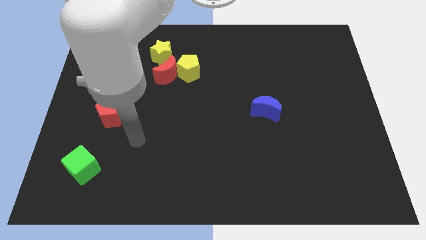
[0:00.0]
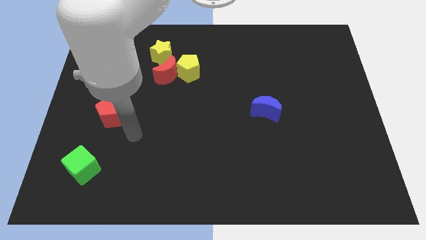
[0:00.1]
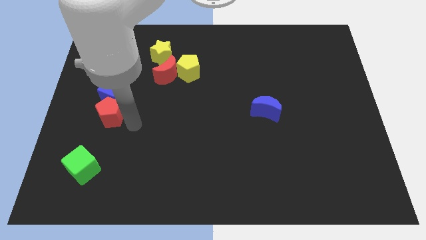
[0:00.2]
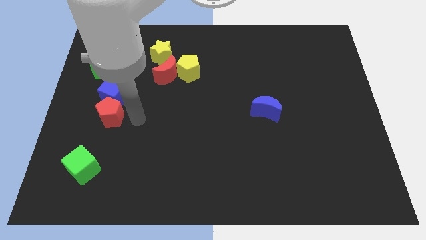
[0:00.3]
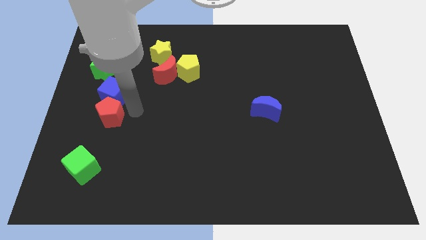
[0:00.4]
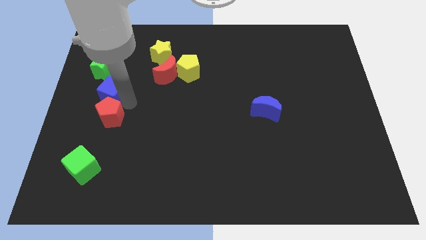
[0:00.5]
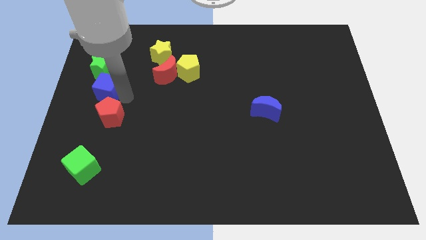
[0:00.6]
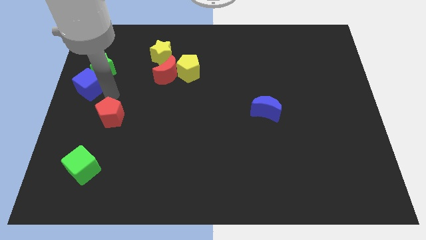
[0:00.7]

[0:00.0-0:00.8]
pull the red pentagon apart from the blue cube

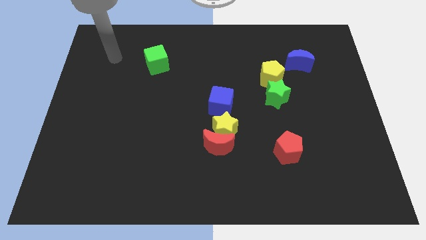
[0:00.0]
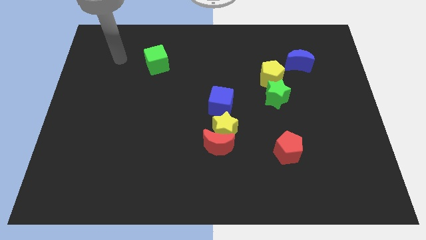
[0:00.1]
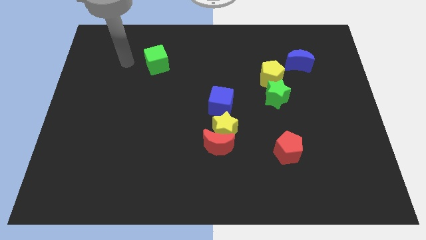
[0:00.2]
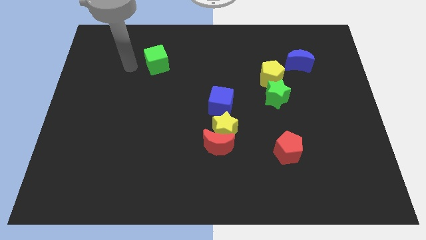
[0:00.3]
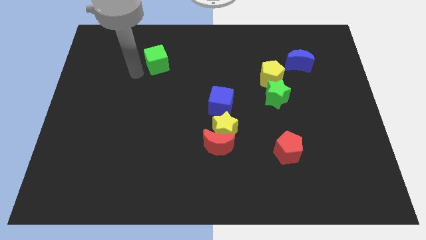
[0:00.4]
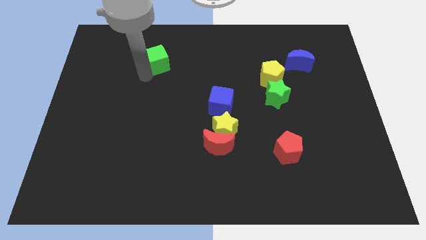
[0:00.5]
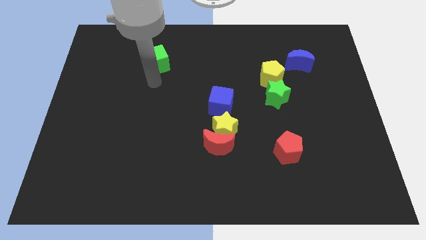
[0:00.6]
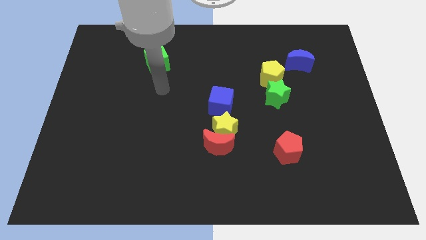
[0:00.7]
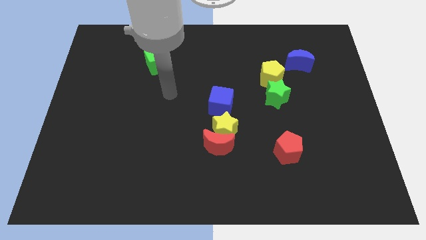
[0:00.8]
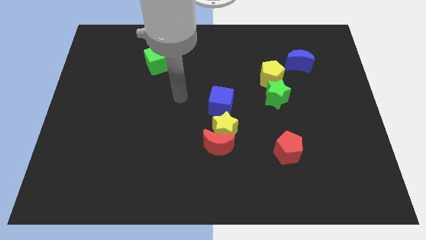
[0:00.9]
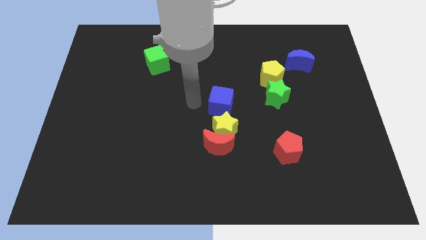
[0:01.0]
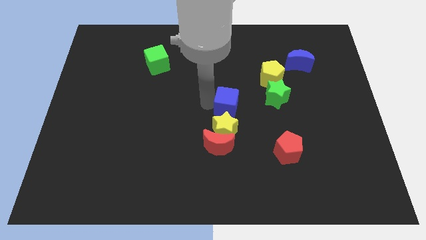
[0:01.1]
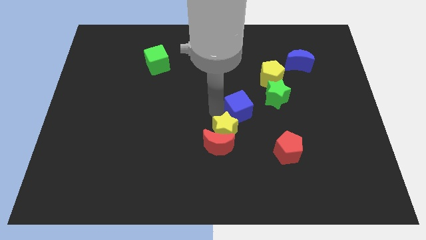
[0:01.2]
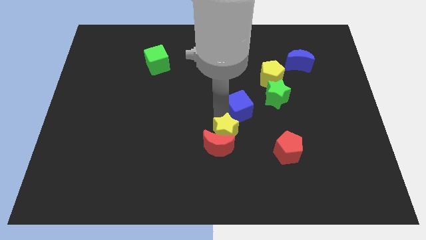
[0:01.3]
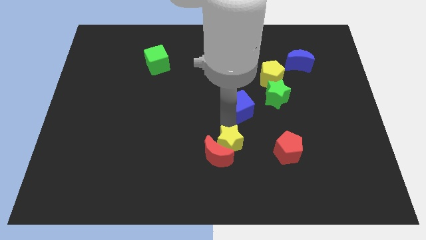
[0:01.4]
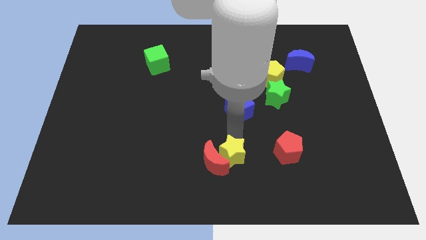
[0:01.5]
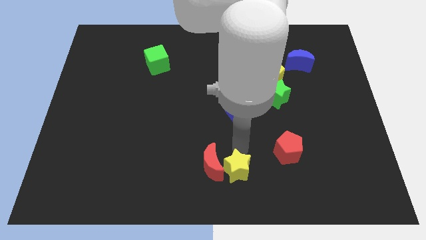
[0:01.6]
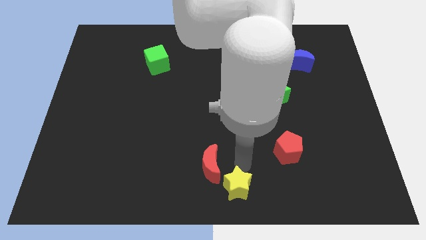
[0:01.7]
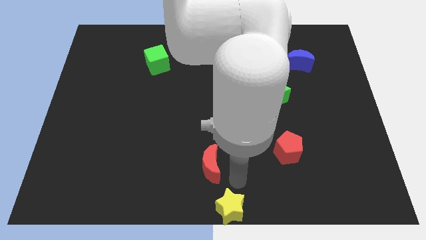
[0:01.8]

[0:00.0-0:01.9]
pull the red moon apart from the yellow star

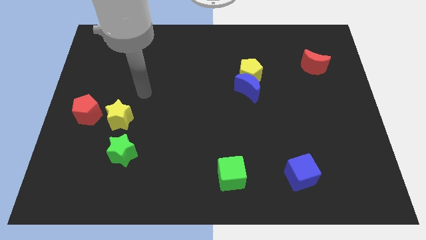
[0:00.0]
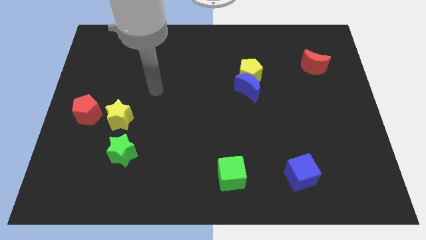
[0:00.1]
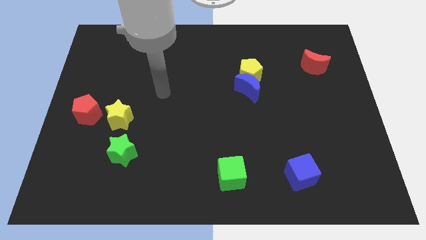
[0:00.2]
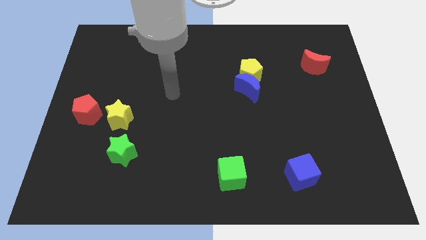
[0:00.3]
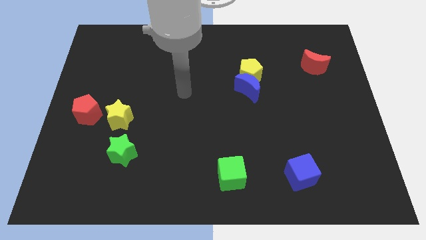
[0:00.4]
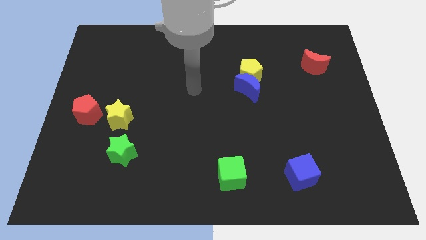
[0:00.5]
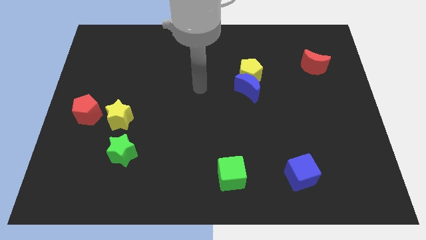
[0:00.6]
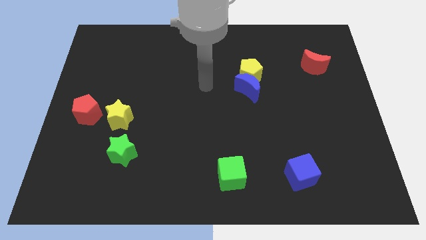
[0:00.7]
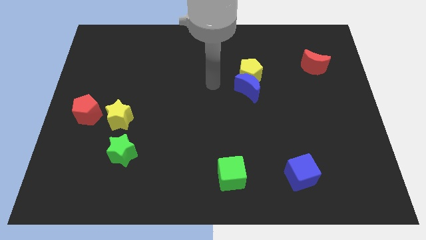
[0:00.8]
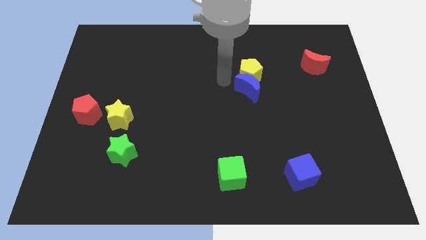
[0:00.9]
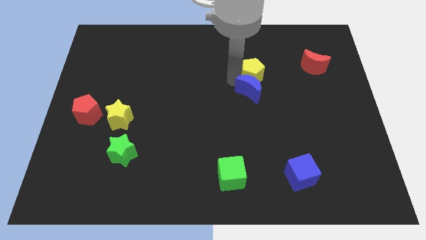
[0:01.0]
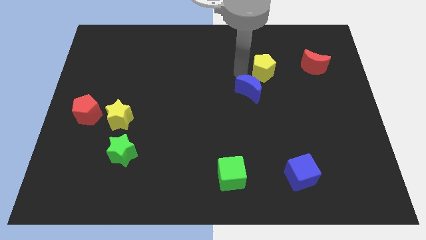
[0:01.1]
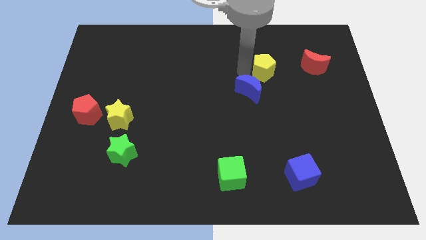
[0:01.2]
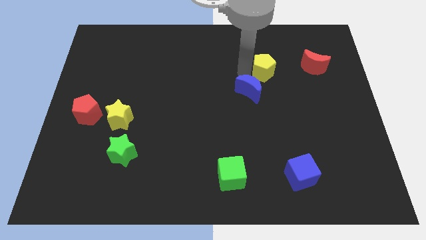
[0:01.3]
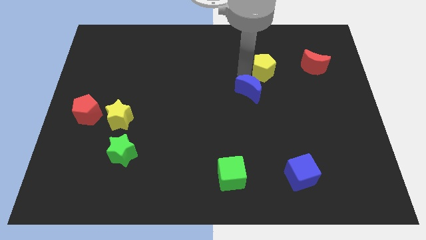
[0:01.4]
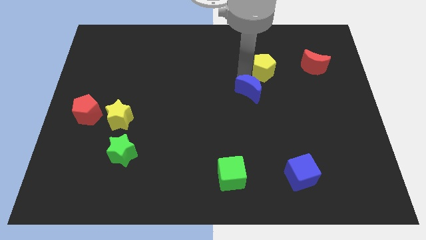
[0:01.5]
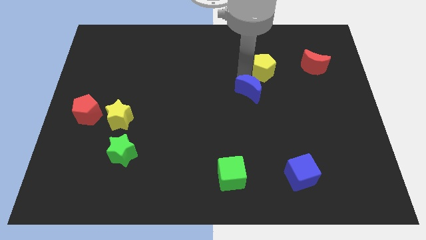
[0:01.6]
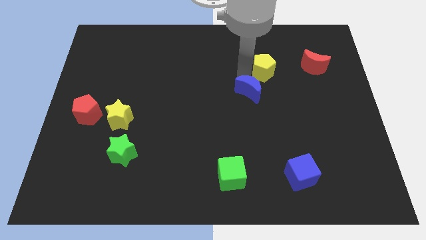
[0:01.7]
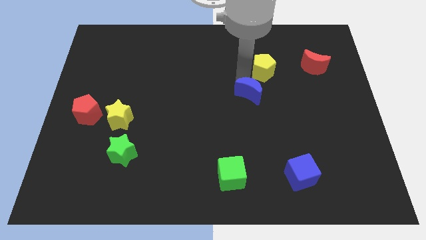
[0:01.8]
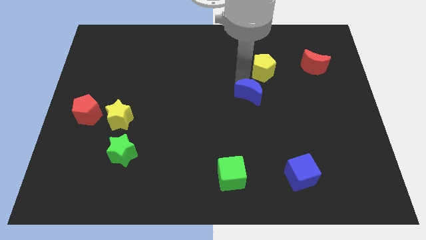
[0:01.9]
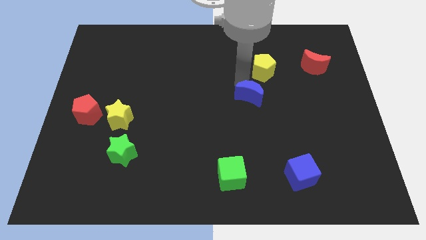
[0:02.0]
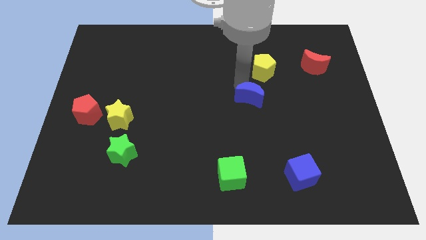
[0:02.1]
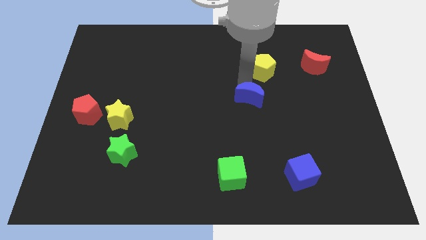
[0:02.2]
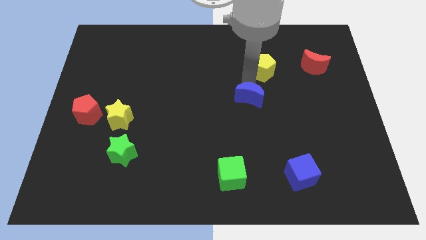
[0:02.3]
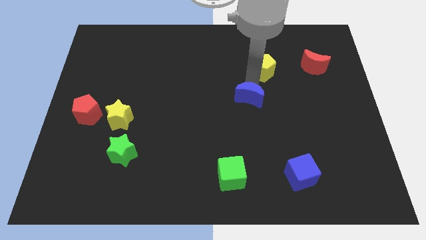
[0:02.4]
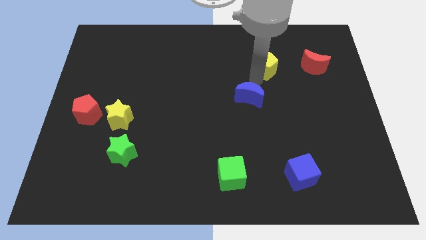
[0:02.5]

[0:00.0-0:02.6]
separate the blue moon from the yellow pentagon

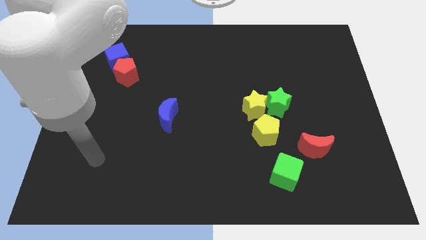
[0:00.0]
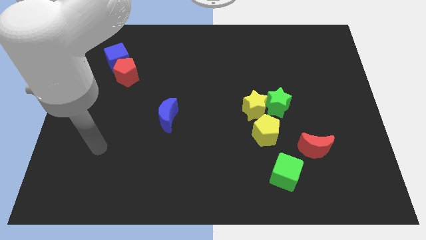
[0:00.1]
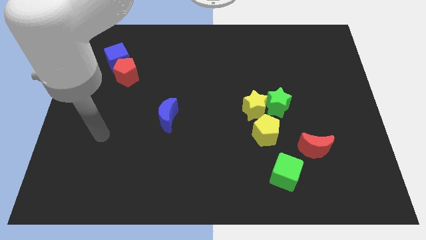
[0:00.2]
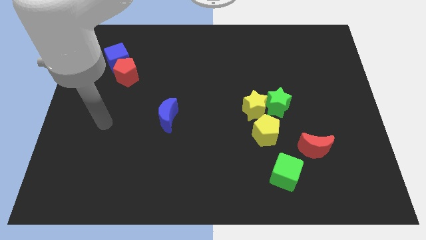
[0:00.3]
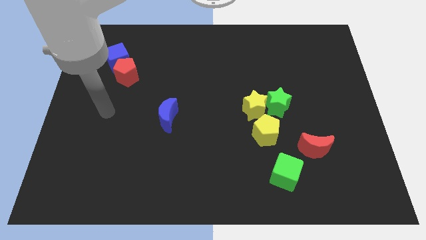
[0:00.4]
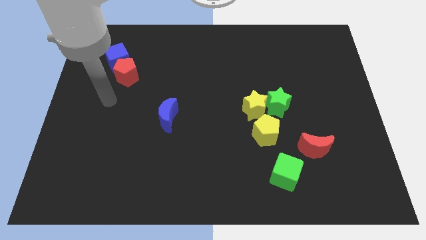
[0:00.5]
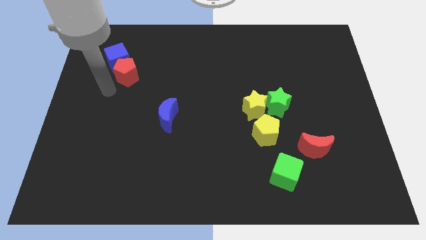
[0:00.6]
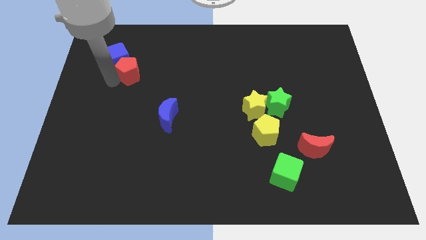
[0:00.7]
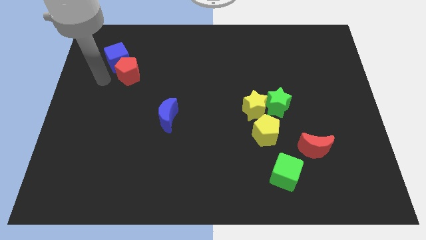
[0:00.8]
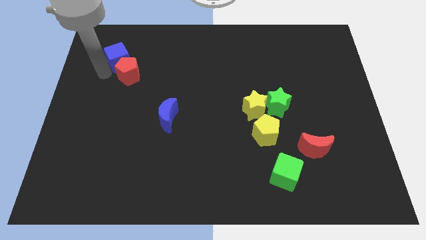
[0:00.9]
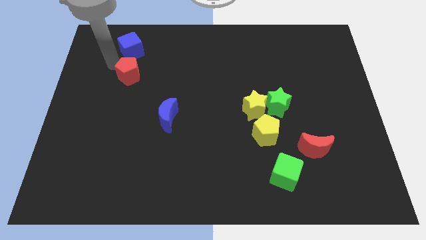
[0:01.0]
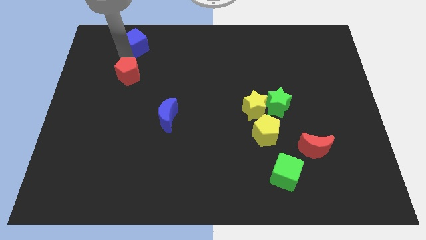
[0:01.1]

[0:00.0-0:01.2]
move the red pentagon away from the blue cube

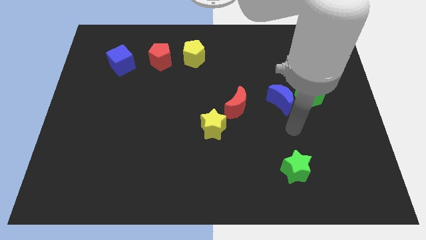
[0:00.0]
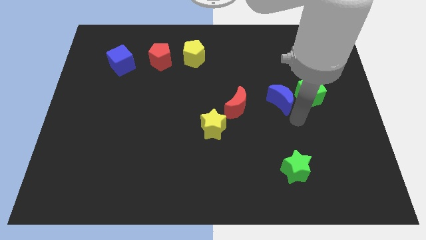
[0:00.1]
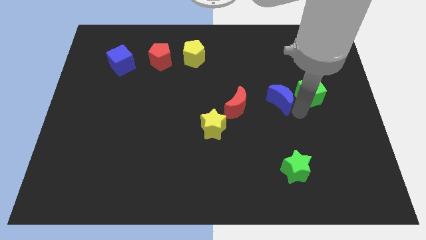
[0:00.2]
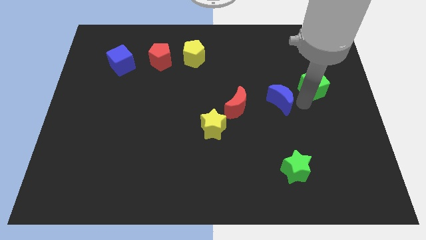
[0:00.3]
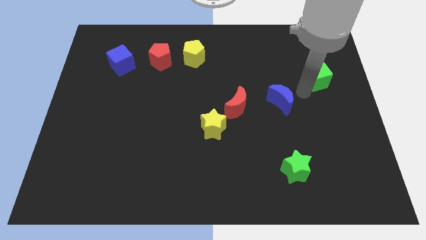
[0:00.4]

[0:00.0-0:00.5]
pull the blue moon apart from the green cube

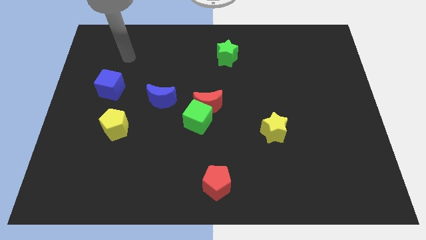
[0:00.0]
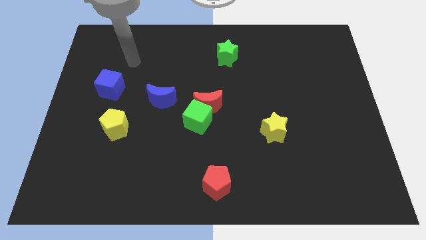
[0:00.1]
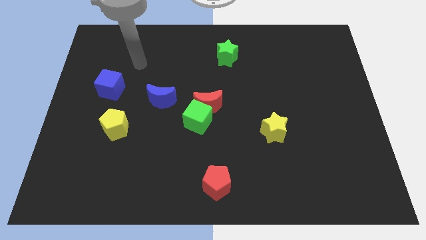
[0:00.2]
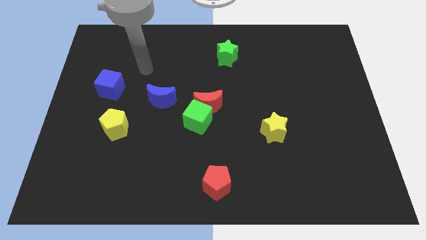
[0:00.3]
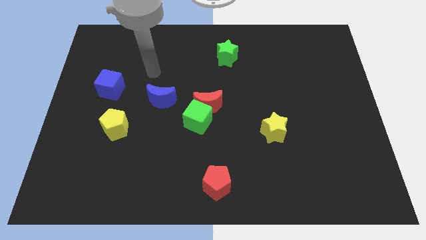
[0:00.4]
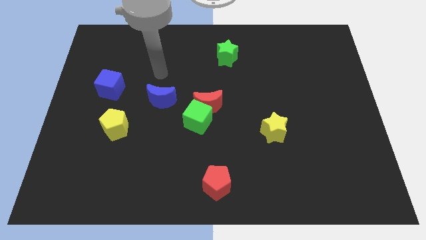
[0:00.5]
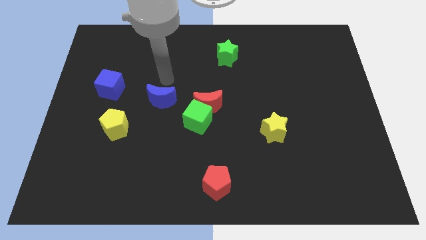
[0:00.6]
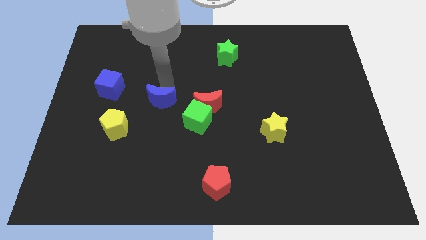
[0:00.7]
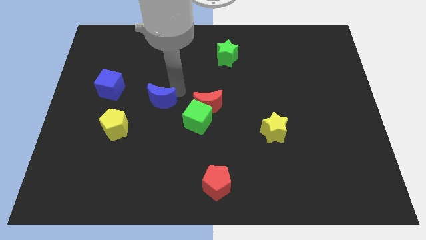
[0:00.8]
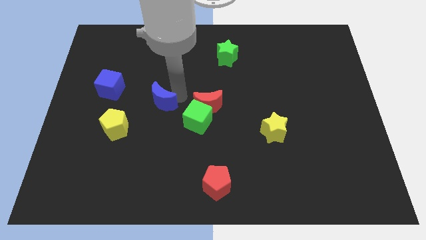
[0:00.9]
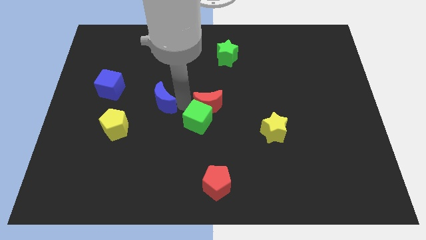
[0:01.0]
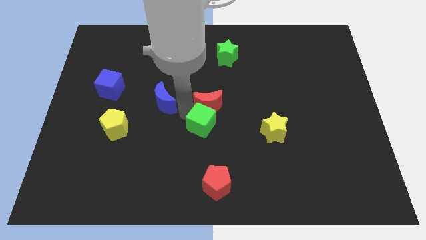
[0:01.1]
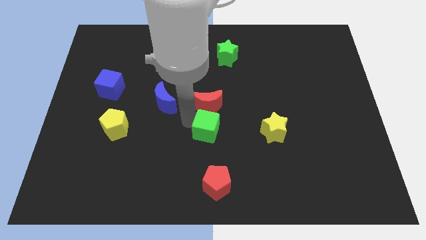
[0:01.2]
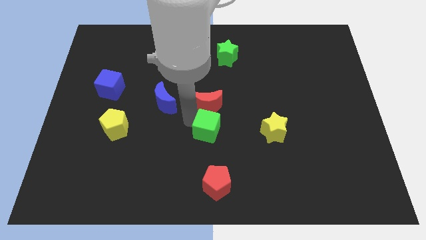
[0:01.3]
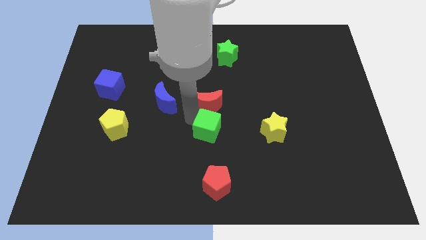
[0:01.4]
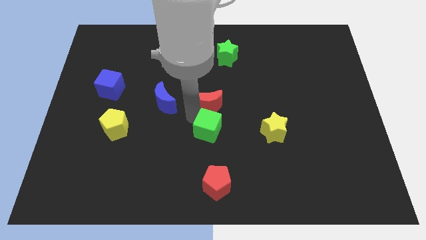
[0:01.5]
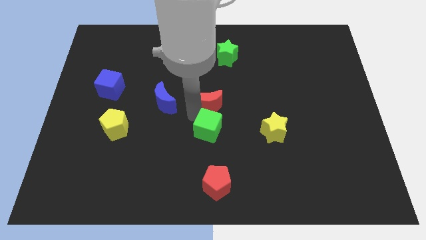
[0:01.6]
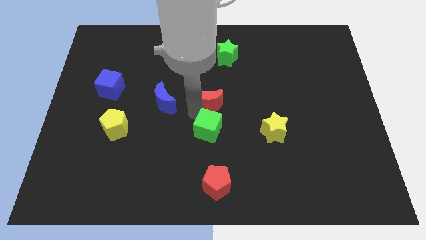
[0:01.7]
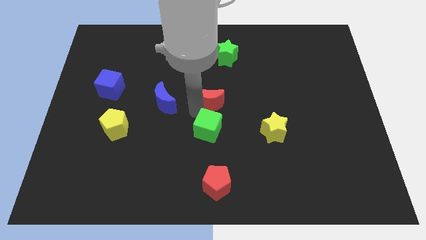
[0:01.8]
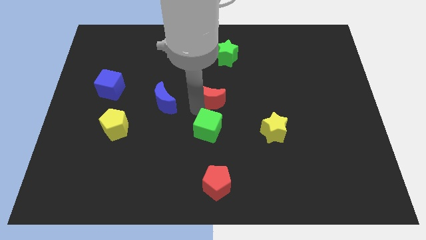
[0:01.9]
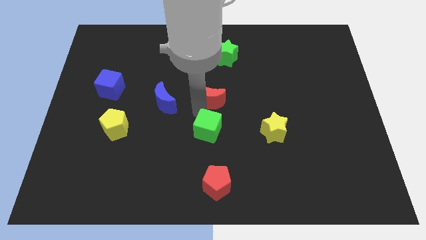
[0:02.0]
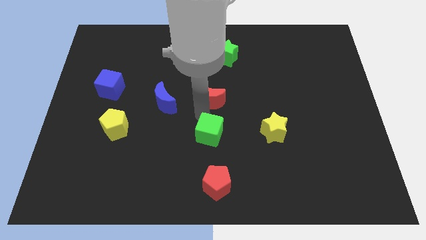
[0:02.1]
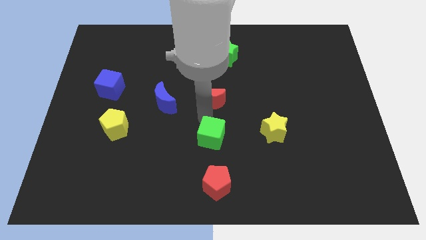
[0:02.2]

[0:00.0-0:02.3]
move the red moon away from the green cube
